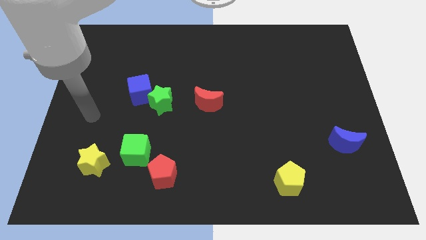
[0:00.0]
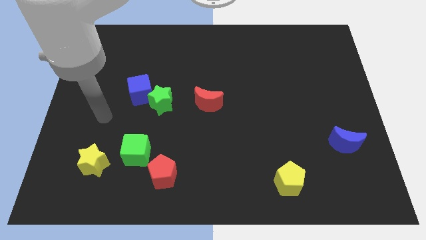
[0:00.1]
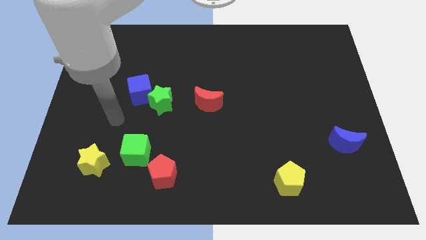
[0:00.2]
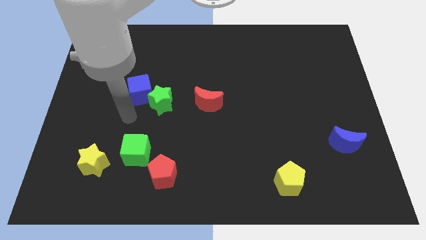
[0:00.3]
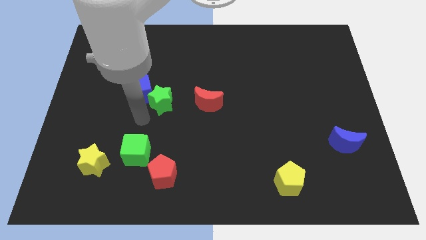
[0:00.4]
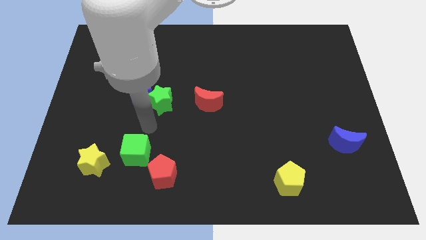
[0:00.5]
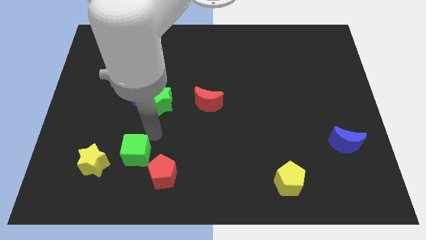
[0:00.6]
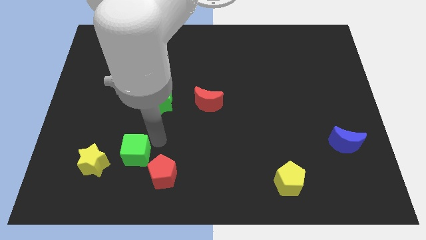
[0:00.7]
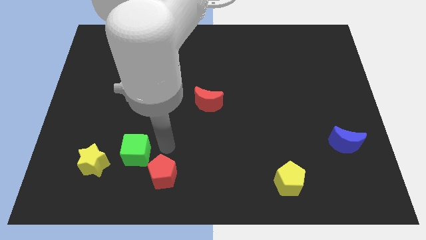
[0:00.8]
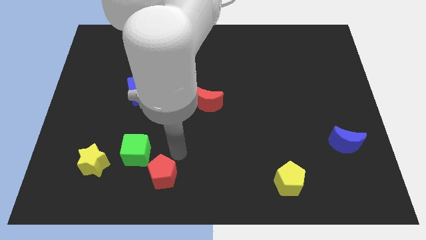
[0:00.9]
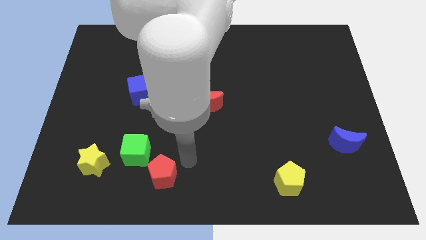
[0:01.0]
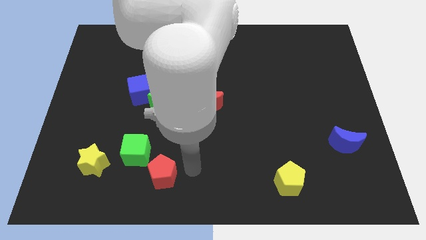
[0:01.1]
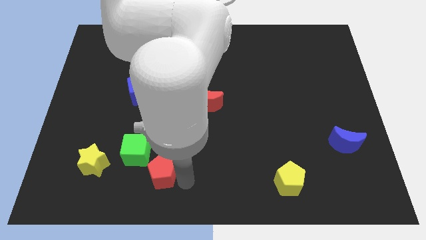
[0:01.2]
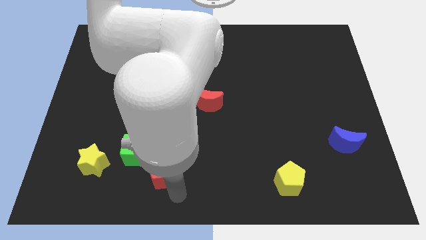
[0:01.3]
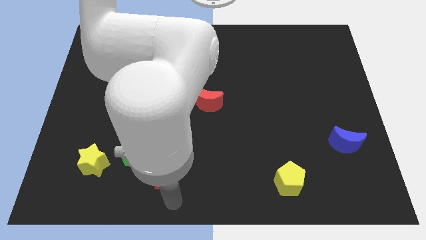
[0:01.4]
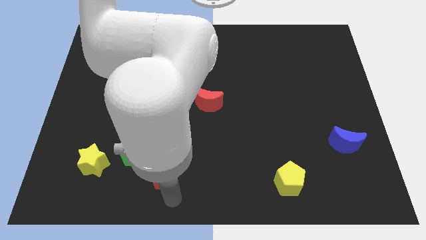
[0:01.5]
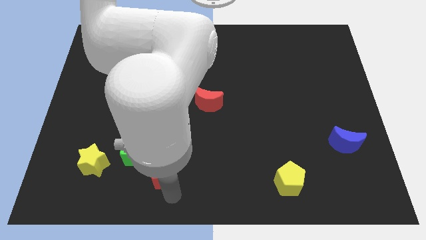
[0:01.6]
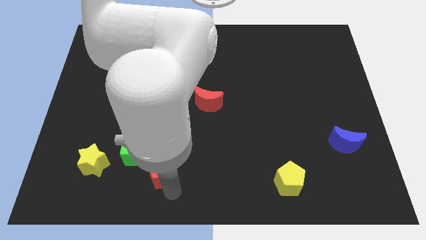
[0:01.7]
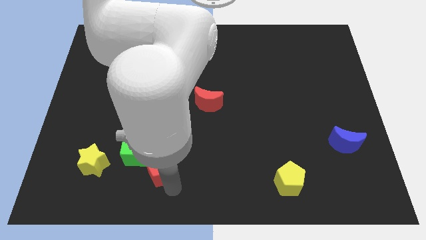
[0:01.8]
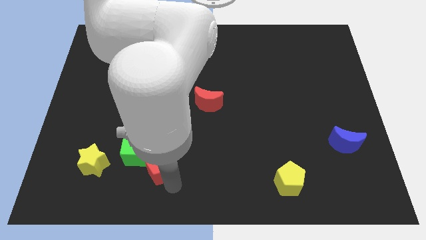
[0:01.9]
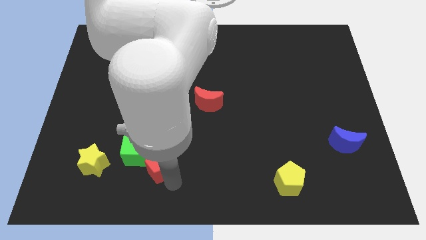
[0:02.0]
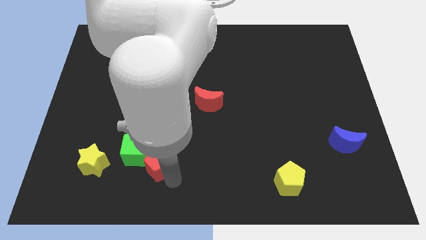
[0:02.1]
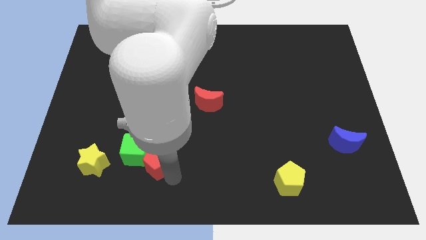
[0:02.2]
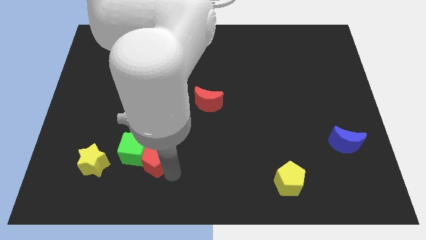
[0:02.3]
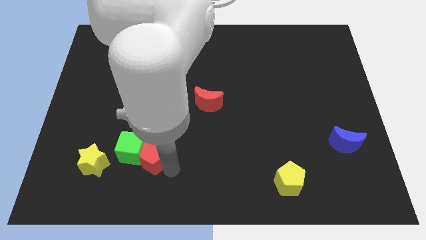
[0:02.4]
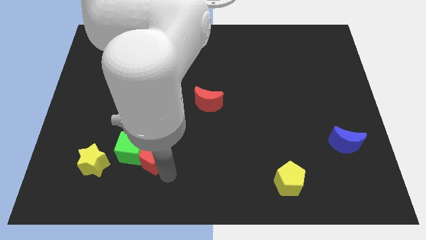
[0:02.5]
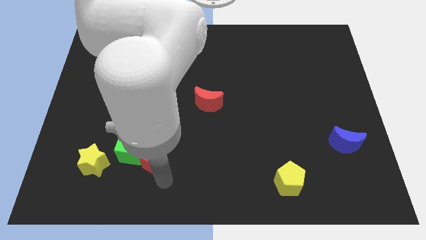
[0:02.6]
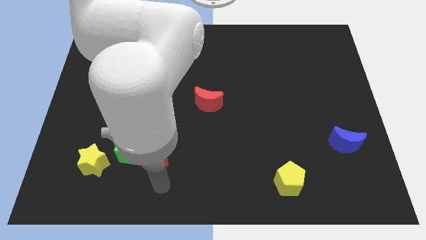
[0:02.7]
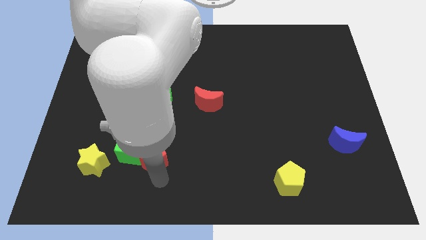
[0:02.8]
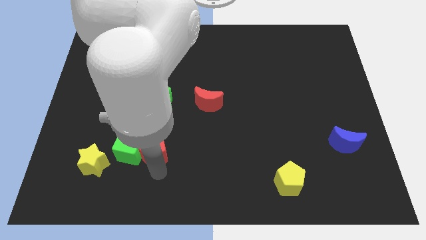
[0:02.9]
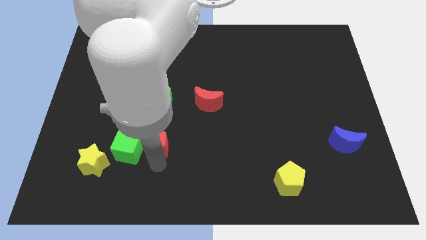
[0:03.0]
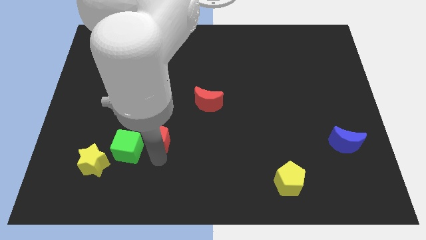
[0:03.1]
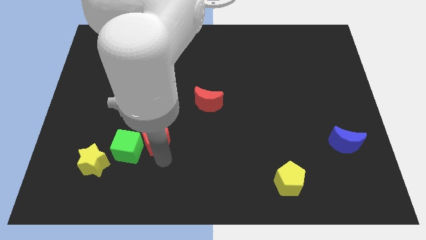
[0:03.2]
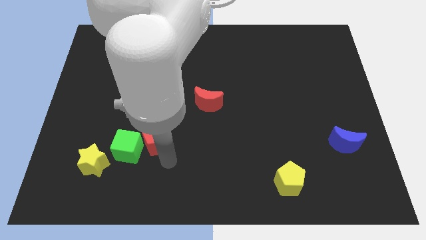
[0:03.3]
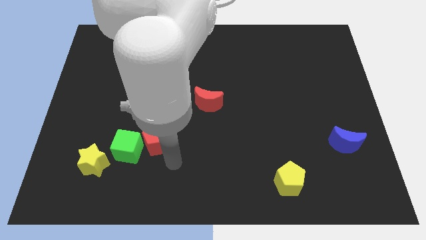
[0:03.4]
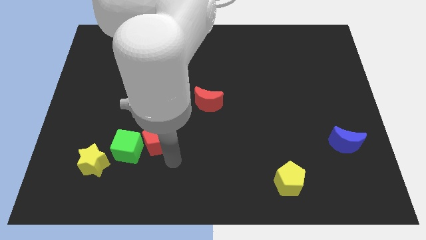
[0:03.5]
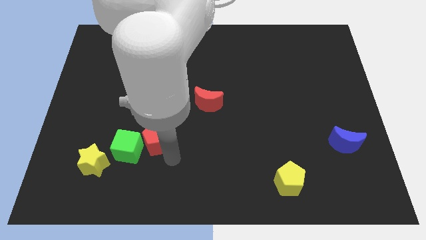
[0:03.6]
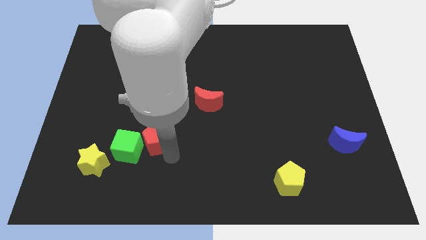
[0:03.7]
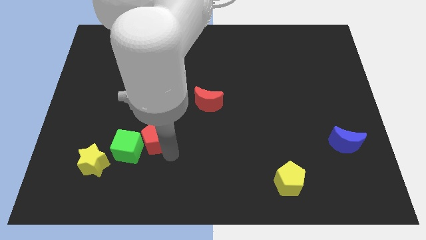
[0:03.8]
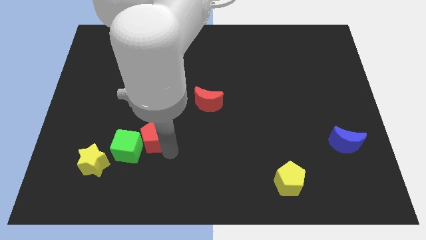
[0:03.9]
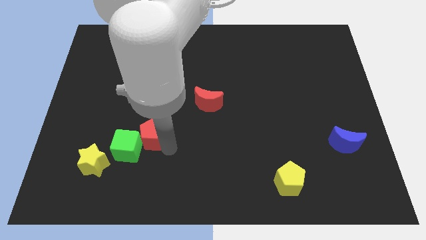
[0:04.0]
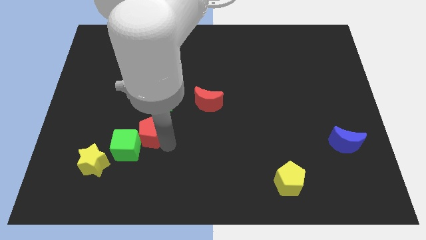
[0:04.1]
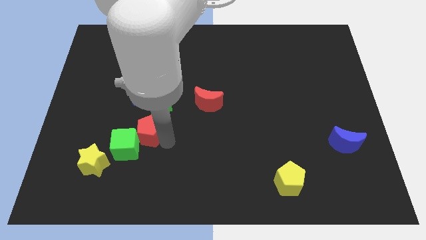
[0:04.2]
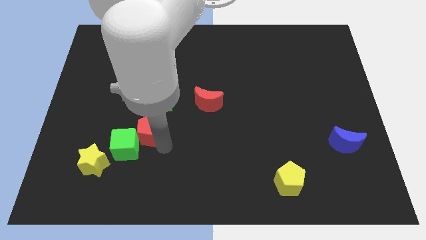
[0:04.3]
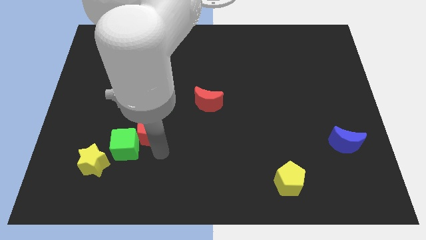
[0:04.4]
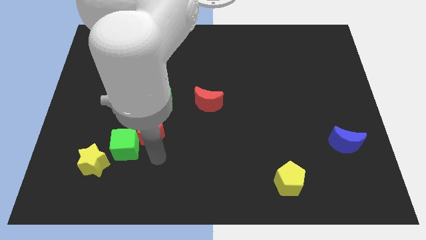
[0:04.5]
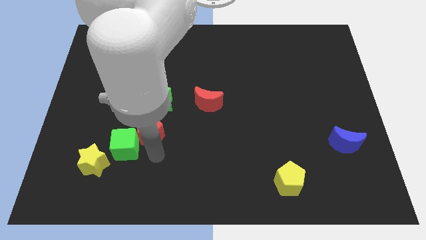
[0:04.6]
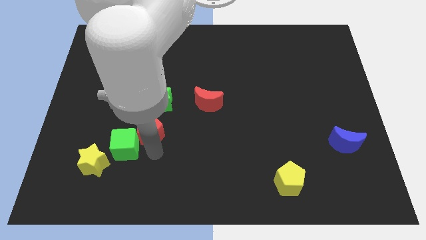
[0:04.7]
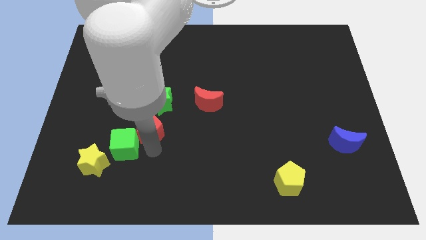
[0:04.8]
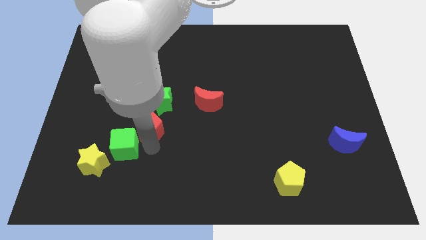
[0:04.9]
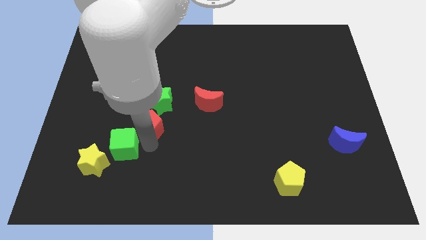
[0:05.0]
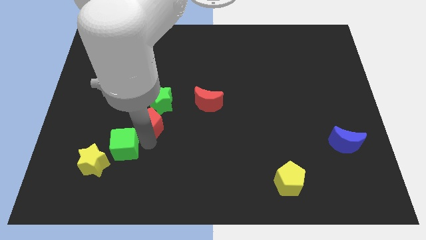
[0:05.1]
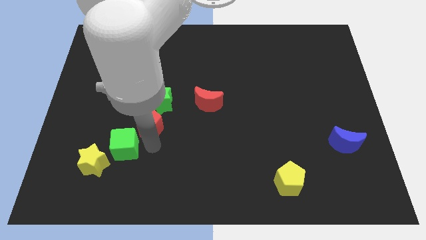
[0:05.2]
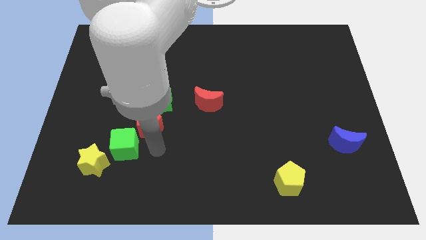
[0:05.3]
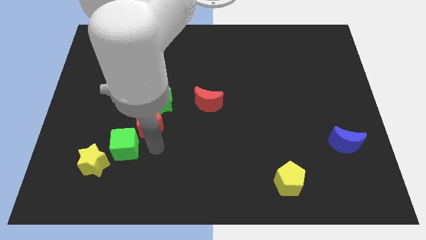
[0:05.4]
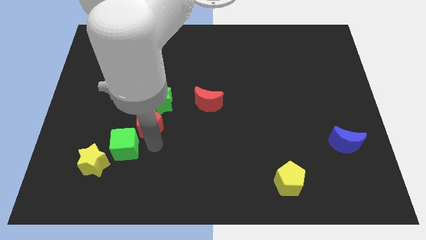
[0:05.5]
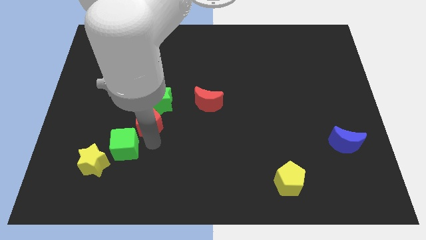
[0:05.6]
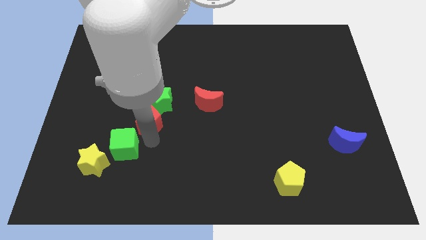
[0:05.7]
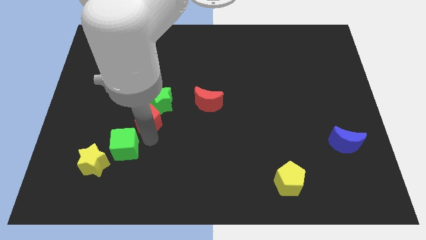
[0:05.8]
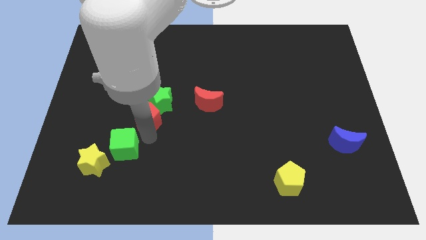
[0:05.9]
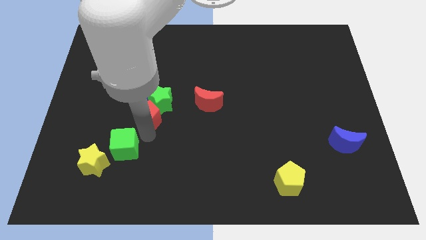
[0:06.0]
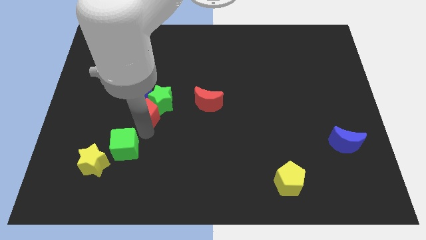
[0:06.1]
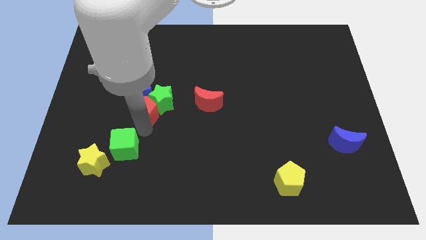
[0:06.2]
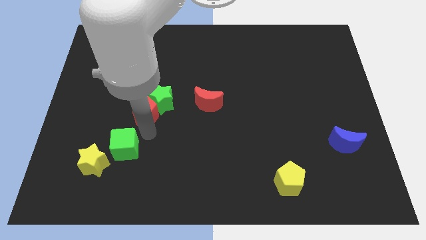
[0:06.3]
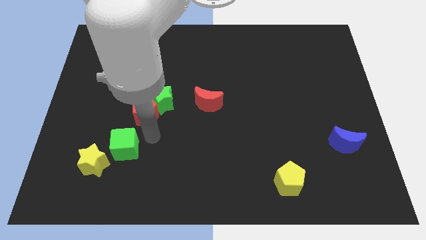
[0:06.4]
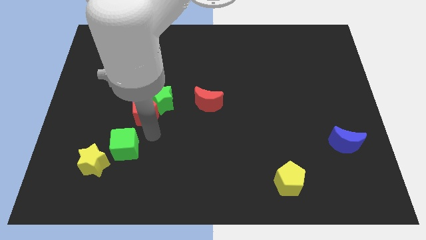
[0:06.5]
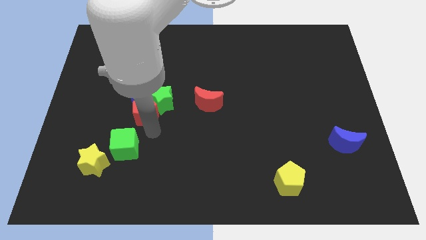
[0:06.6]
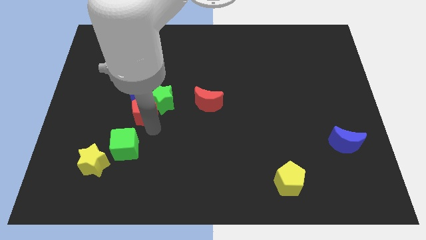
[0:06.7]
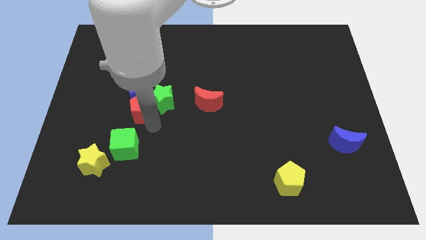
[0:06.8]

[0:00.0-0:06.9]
slide the red pentagon next to the blue cube
